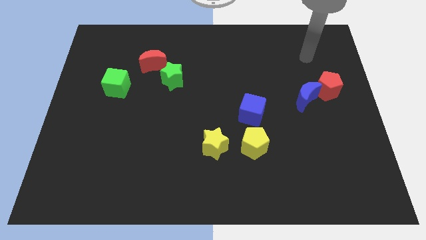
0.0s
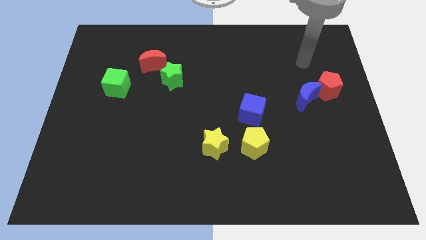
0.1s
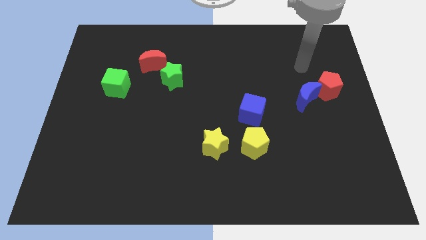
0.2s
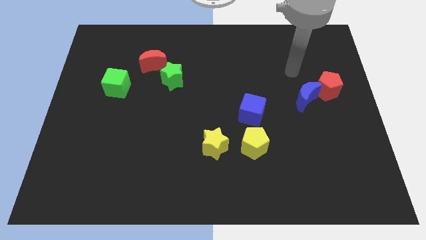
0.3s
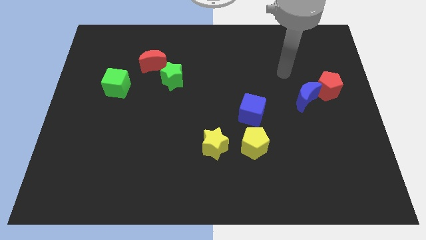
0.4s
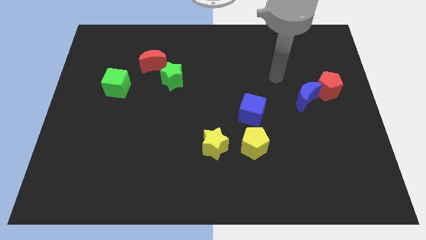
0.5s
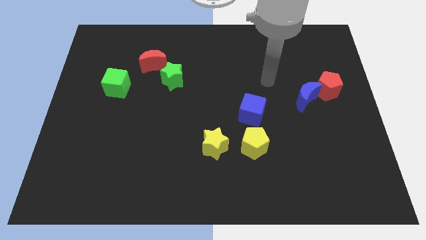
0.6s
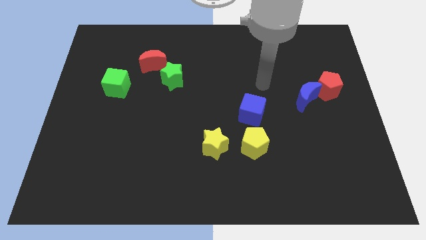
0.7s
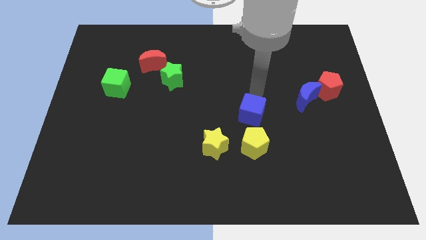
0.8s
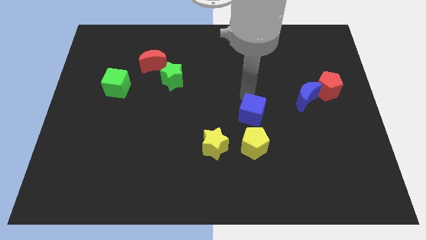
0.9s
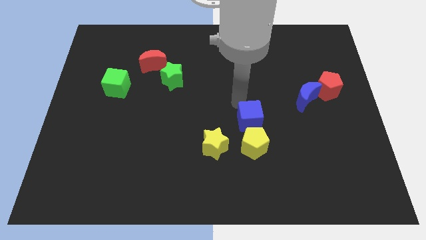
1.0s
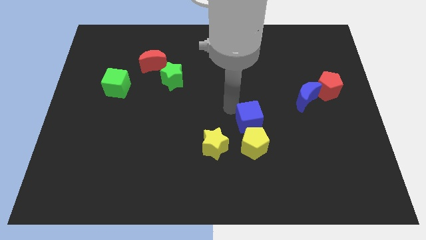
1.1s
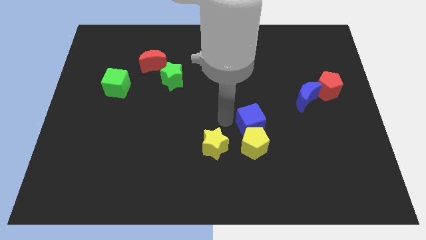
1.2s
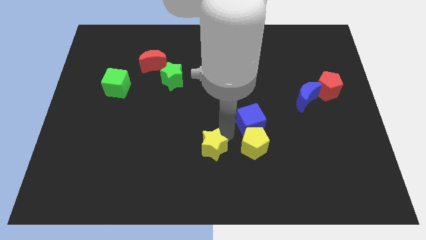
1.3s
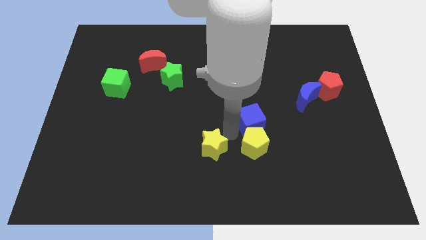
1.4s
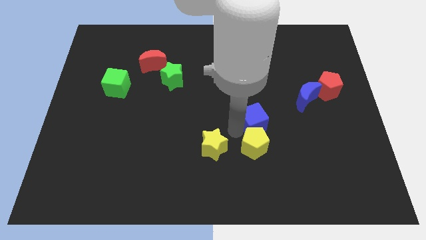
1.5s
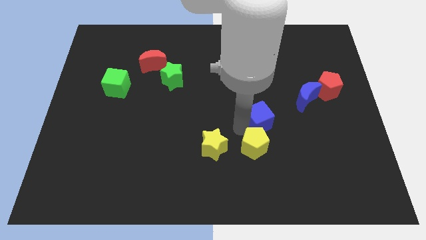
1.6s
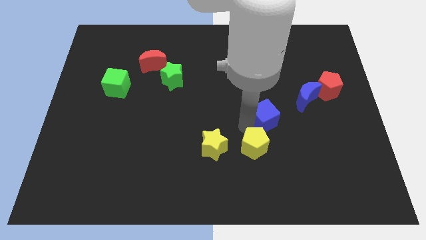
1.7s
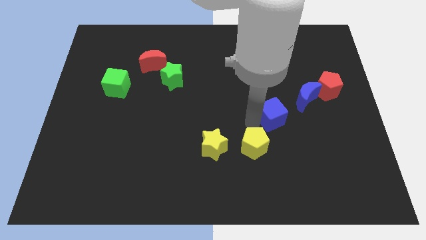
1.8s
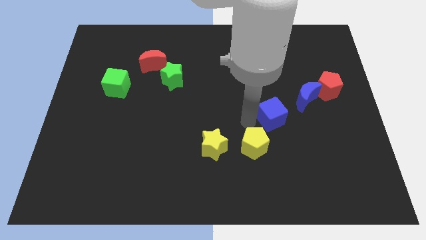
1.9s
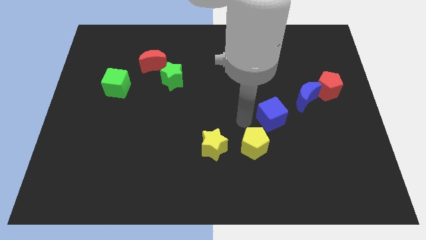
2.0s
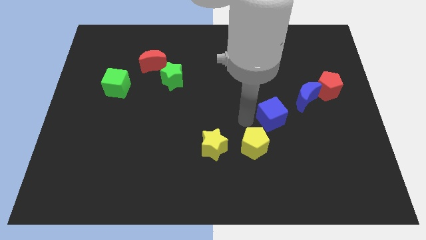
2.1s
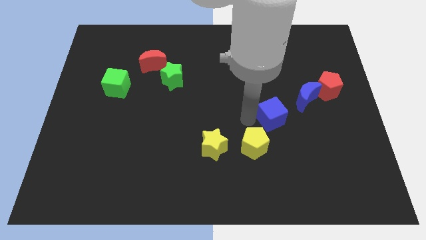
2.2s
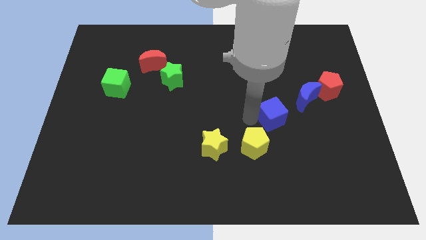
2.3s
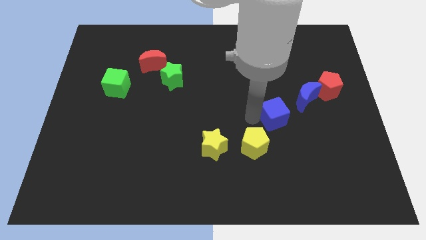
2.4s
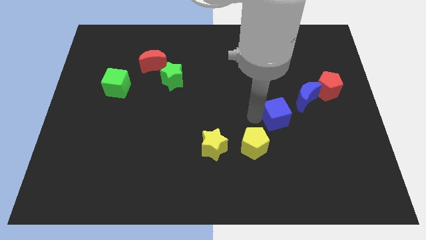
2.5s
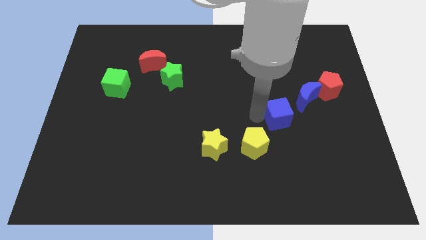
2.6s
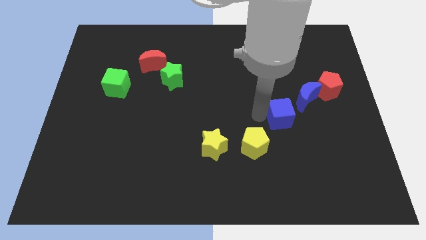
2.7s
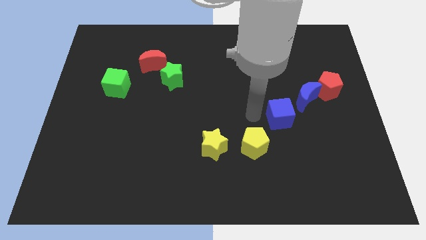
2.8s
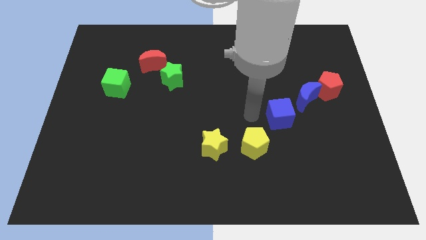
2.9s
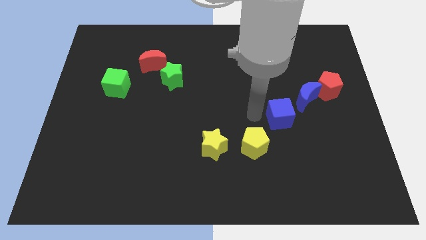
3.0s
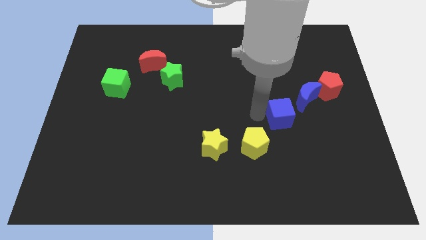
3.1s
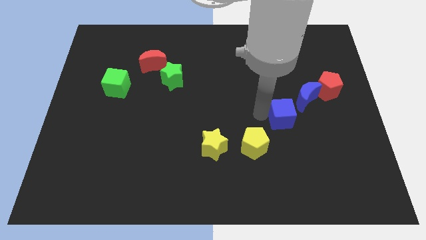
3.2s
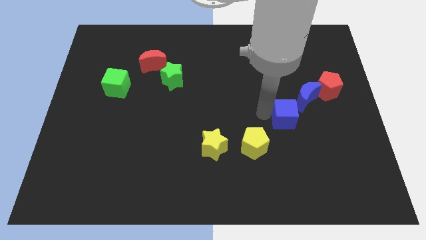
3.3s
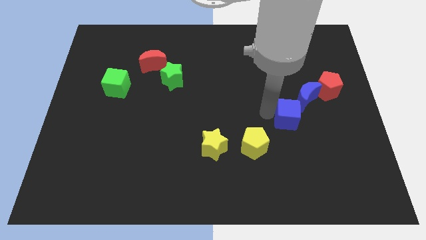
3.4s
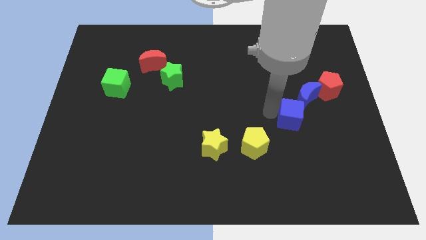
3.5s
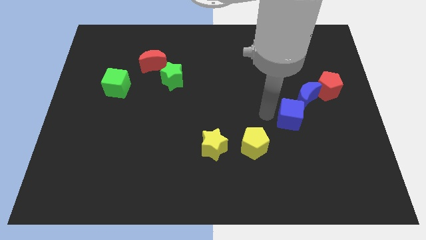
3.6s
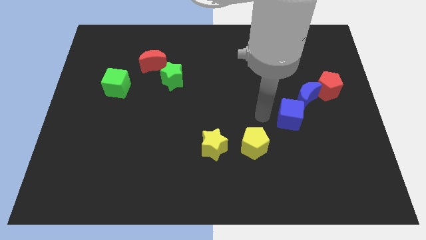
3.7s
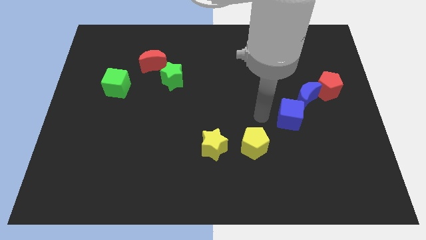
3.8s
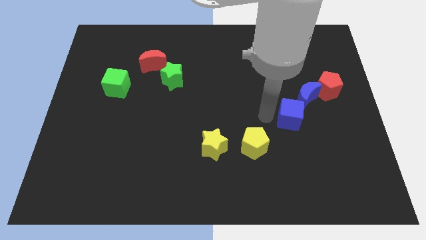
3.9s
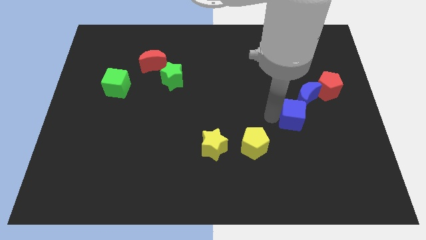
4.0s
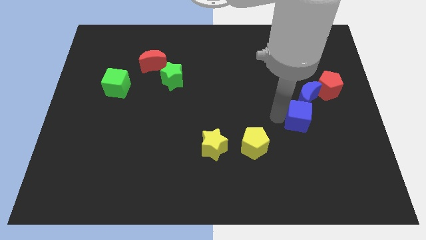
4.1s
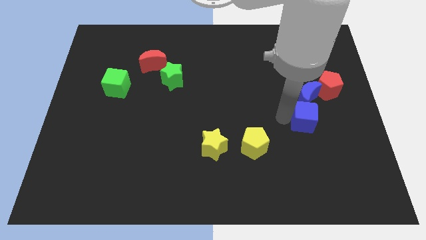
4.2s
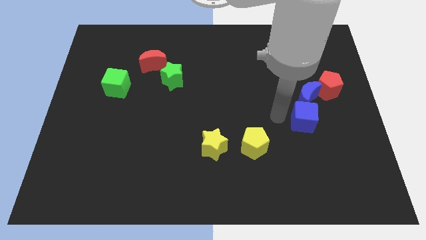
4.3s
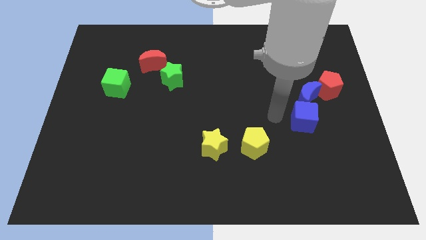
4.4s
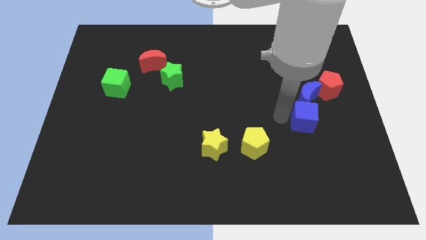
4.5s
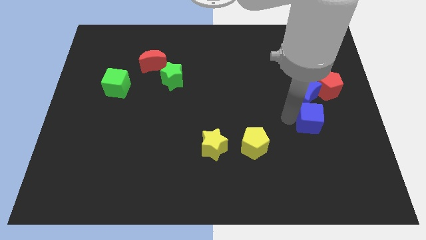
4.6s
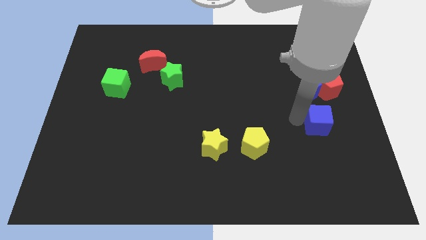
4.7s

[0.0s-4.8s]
slide the blue cube below the red pentagon

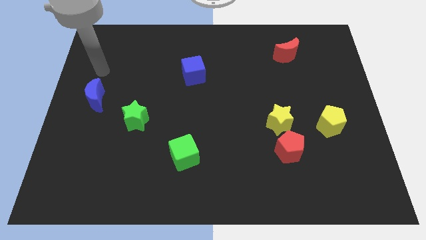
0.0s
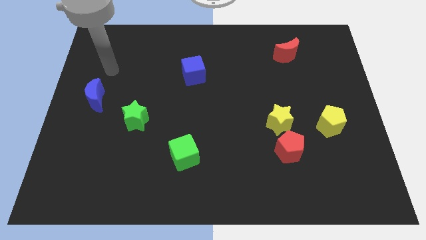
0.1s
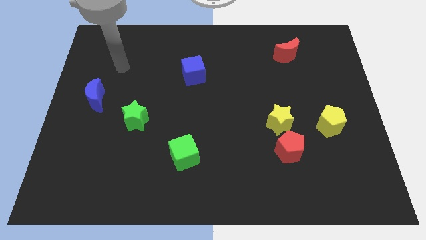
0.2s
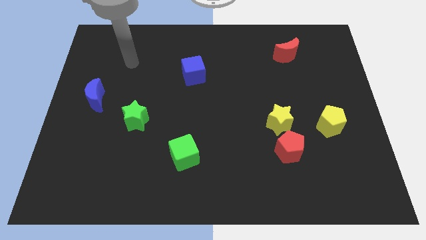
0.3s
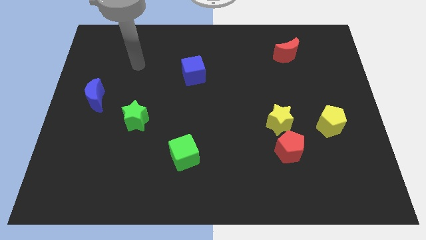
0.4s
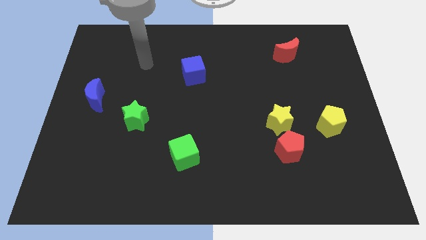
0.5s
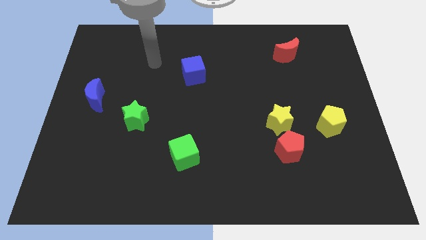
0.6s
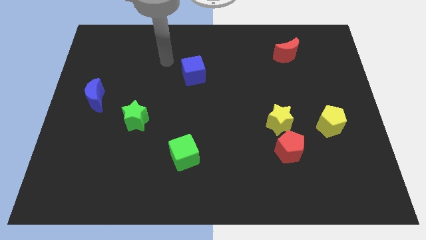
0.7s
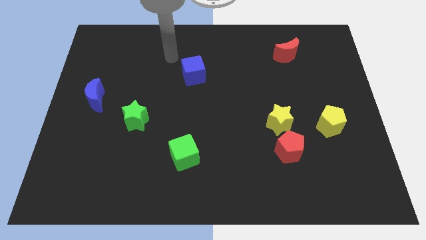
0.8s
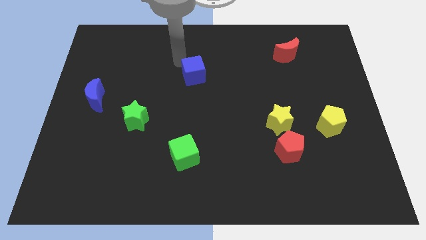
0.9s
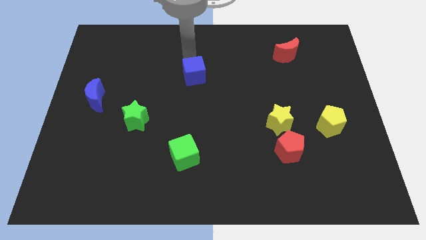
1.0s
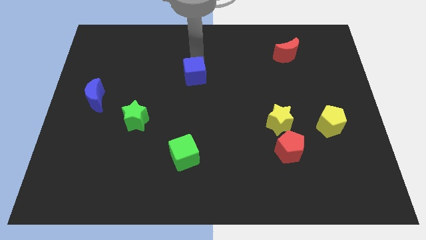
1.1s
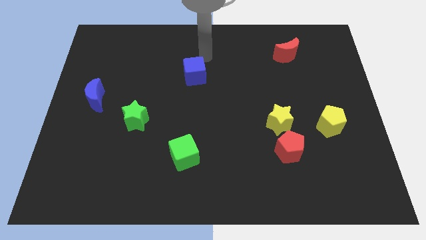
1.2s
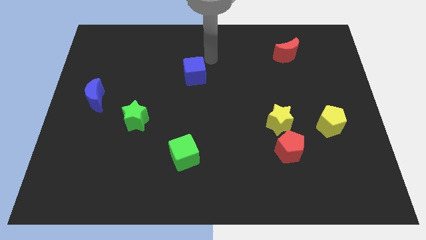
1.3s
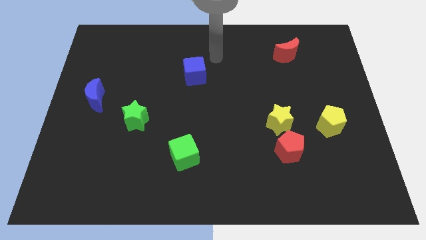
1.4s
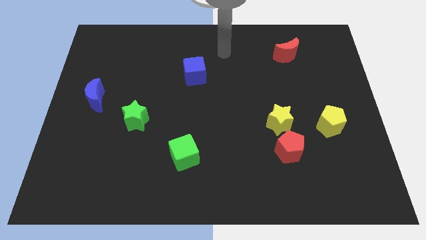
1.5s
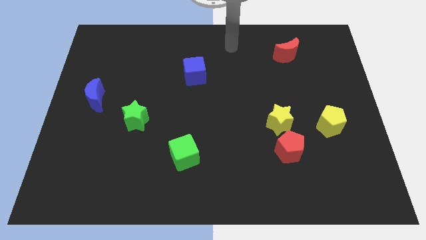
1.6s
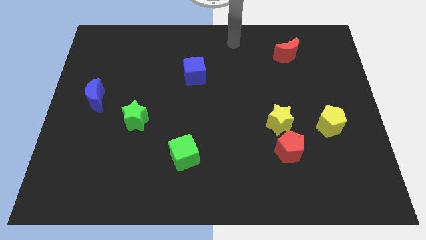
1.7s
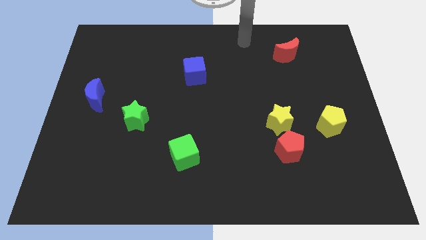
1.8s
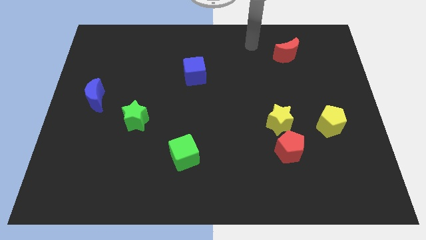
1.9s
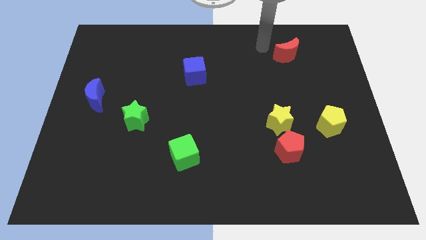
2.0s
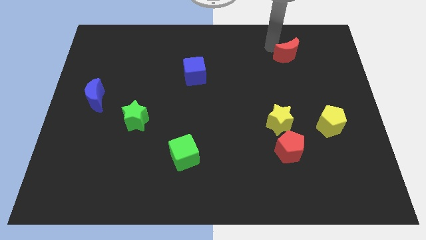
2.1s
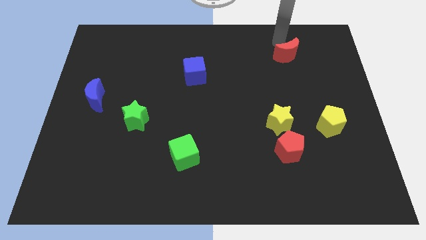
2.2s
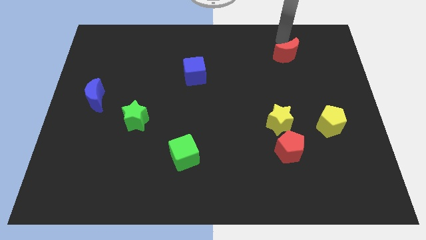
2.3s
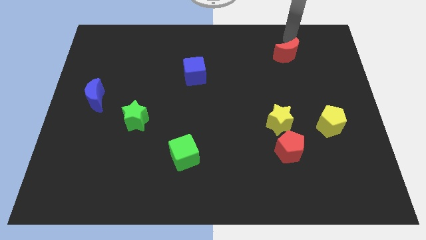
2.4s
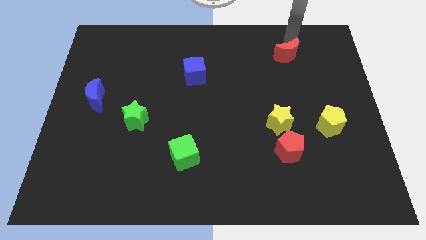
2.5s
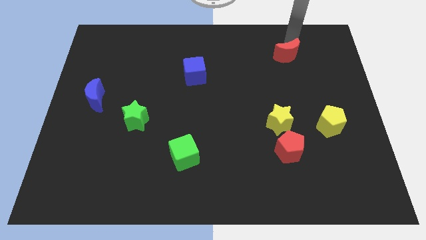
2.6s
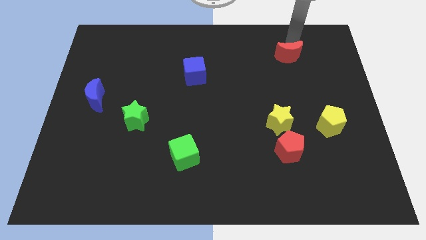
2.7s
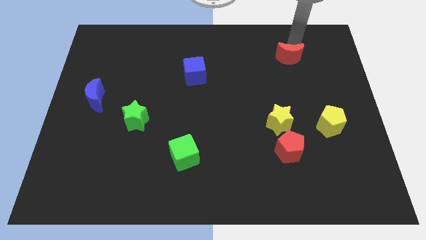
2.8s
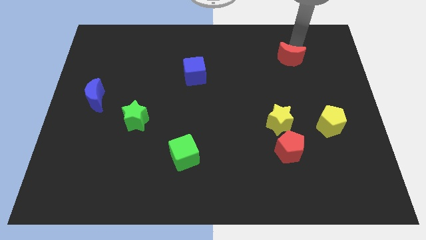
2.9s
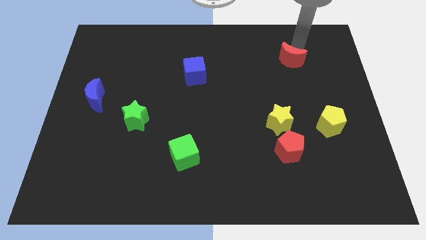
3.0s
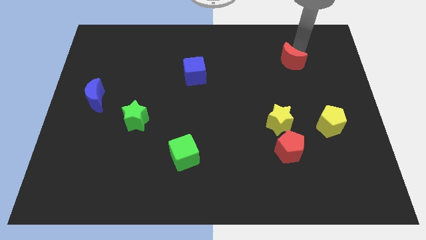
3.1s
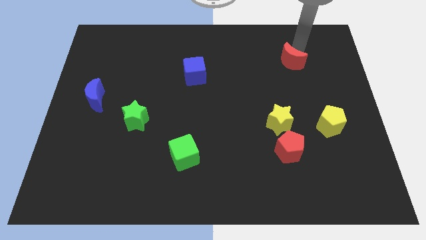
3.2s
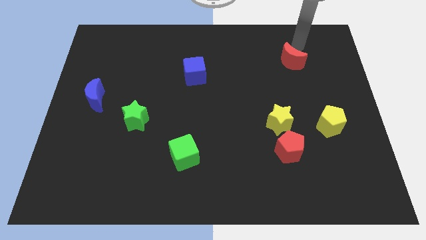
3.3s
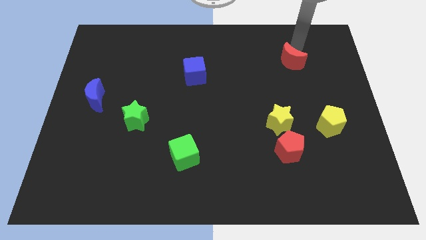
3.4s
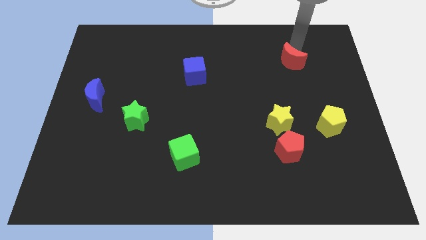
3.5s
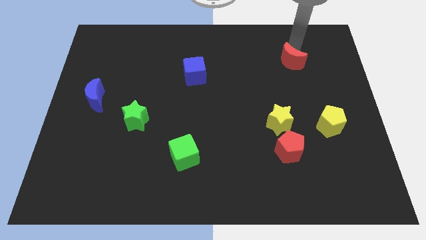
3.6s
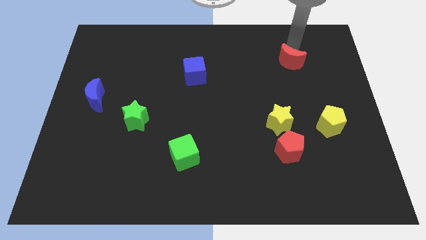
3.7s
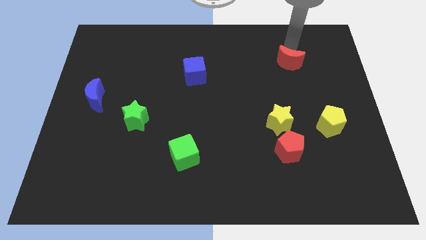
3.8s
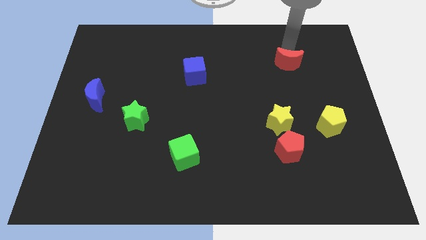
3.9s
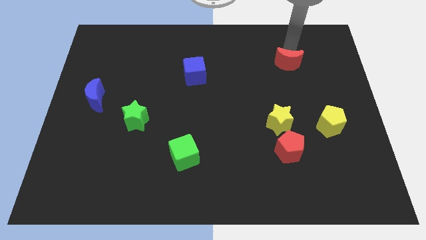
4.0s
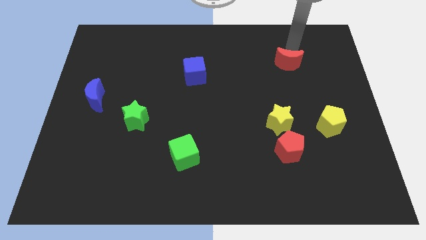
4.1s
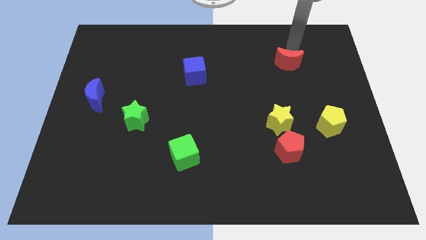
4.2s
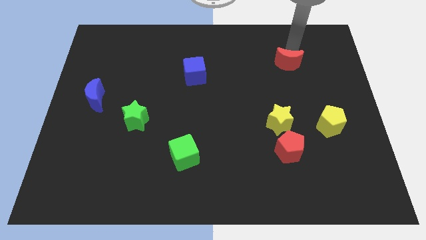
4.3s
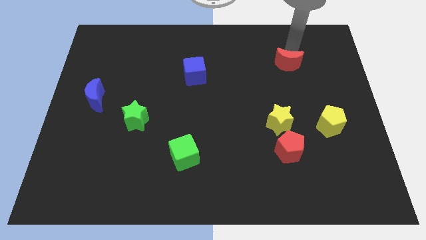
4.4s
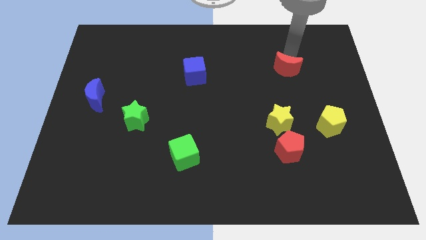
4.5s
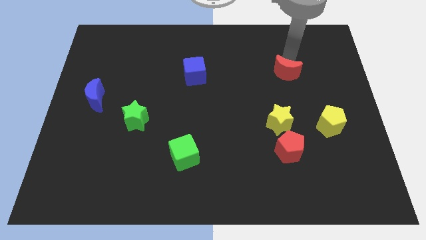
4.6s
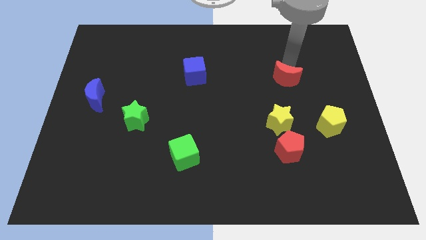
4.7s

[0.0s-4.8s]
put the red moon above the yellow star
